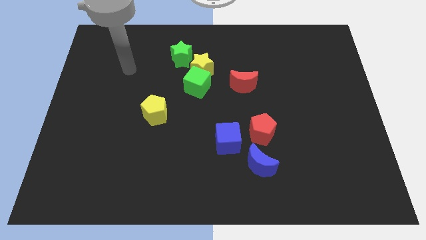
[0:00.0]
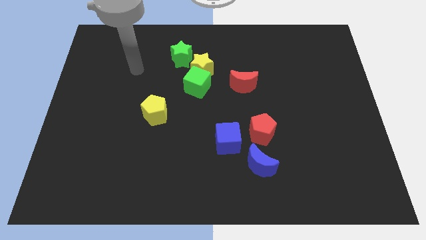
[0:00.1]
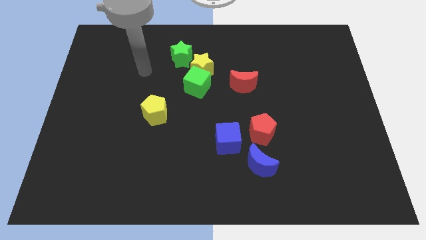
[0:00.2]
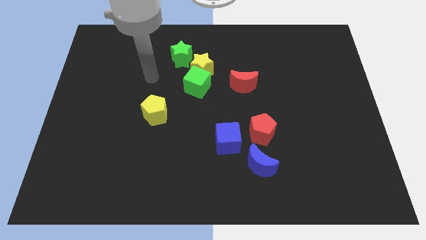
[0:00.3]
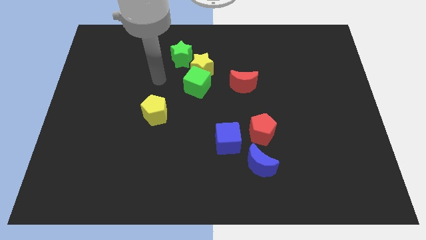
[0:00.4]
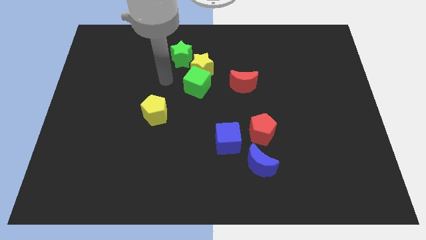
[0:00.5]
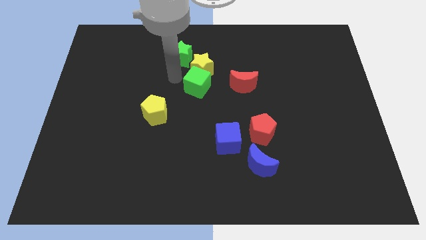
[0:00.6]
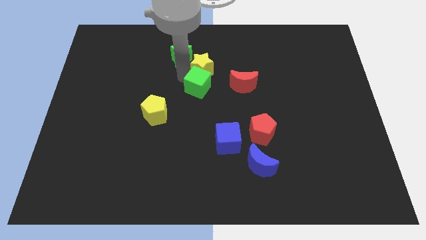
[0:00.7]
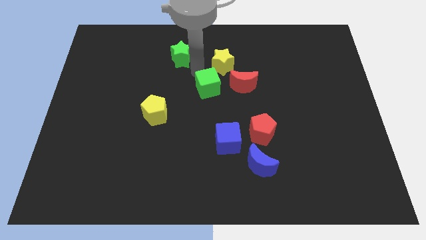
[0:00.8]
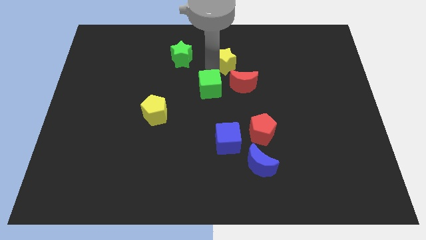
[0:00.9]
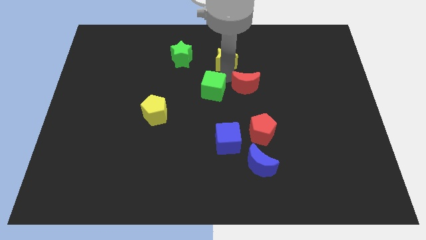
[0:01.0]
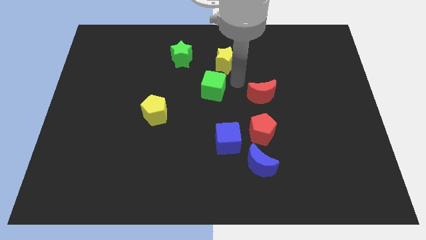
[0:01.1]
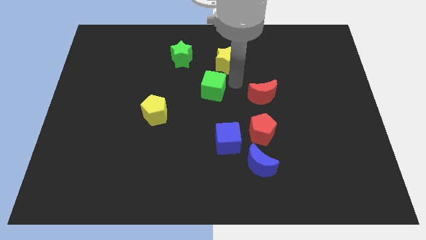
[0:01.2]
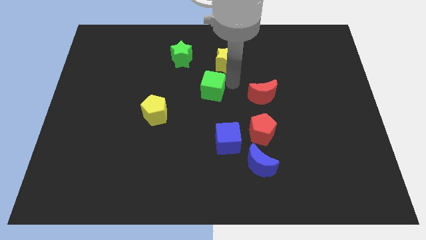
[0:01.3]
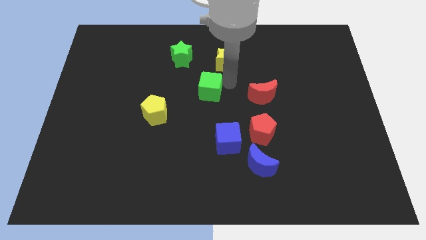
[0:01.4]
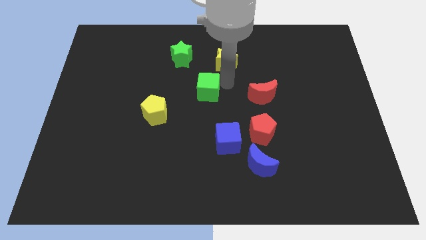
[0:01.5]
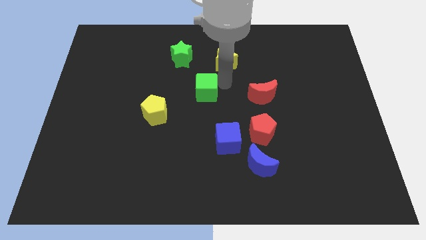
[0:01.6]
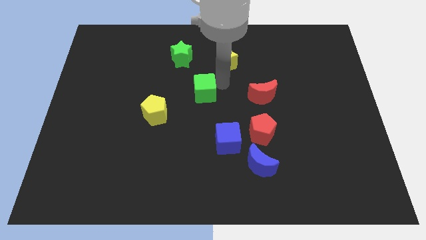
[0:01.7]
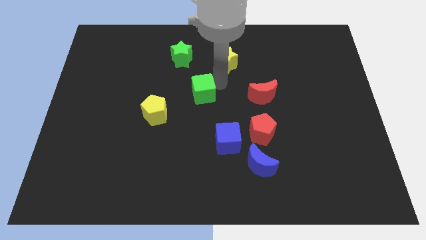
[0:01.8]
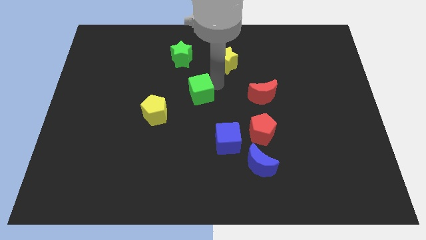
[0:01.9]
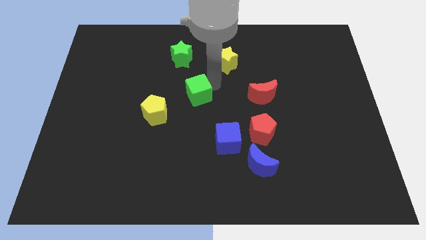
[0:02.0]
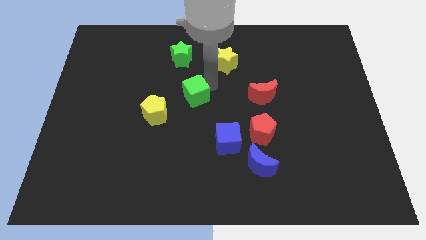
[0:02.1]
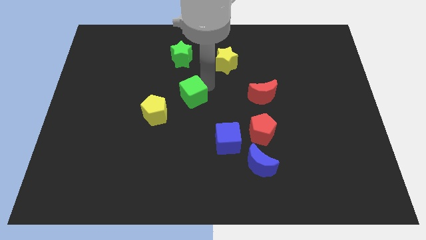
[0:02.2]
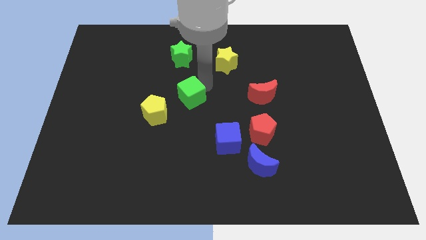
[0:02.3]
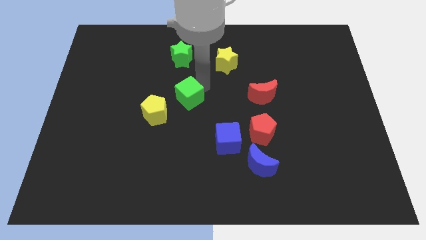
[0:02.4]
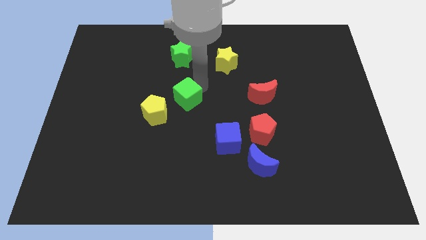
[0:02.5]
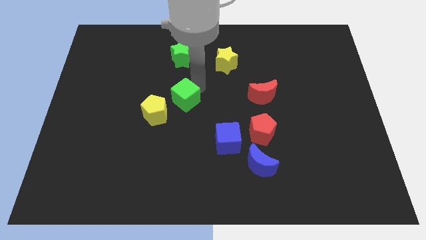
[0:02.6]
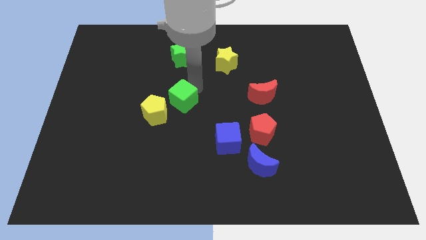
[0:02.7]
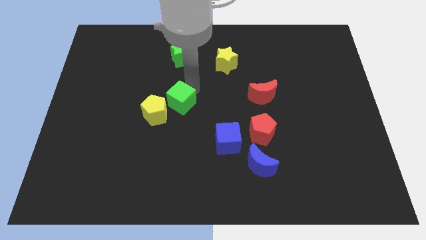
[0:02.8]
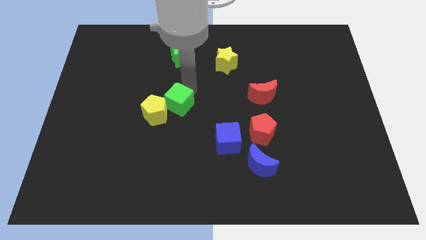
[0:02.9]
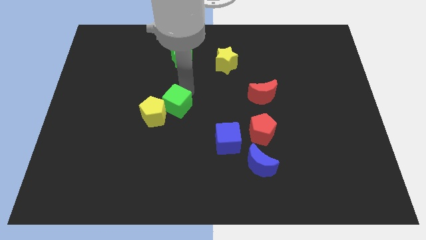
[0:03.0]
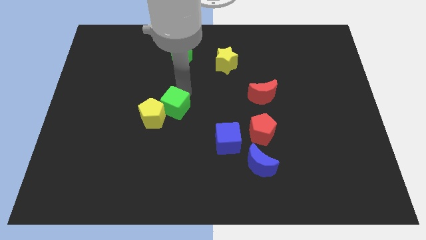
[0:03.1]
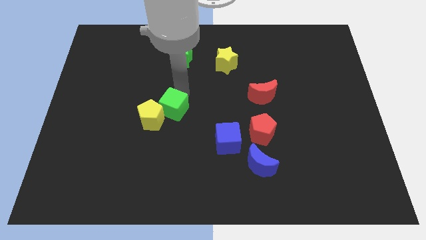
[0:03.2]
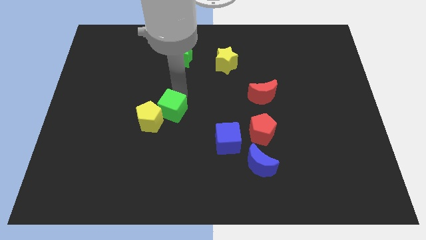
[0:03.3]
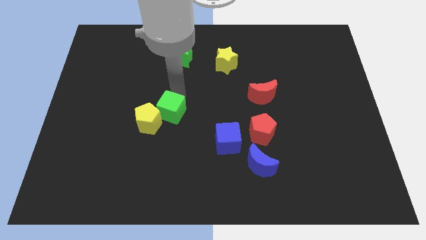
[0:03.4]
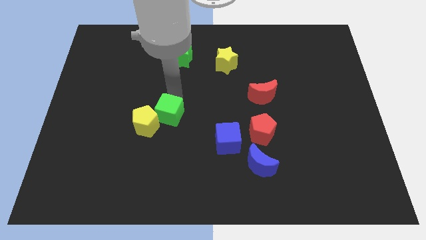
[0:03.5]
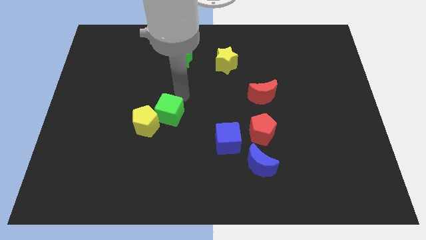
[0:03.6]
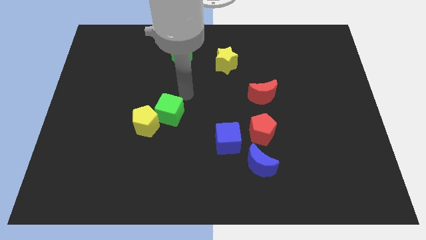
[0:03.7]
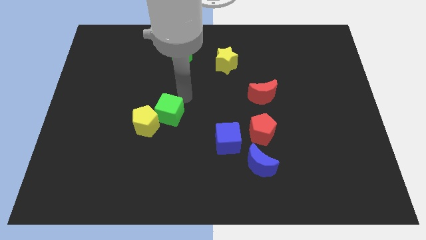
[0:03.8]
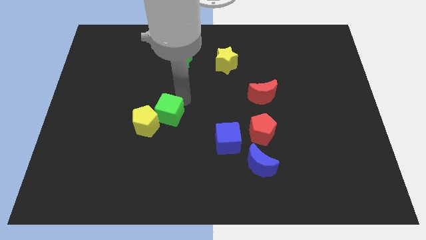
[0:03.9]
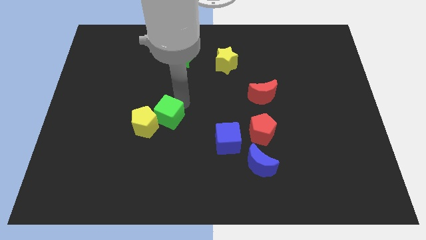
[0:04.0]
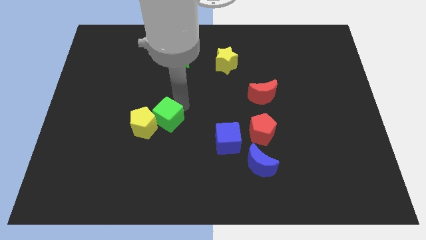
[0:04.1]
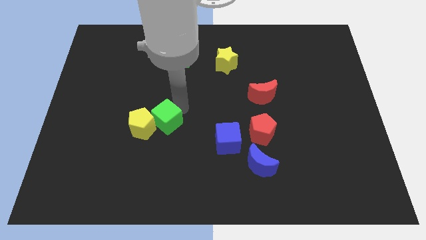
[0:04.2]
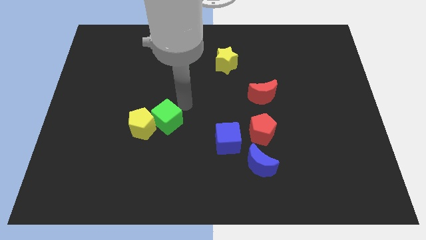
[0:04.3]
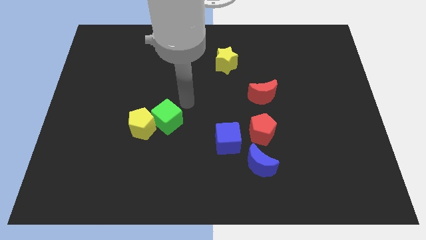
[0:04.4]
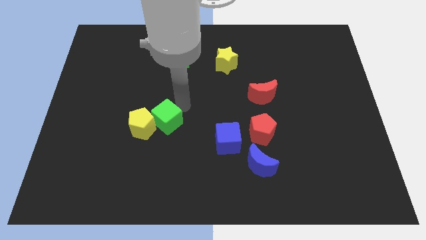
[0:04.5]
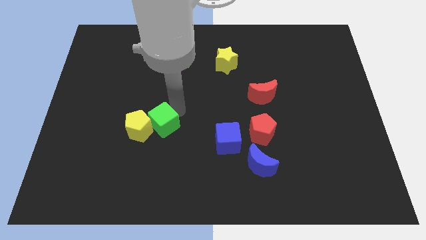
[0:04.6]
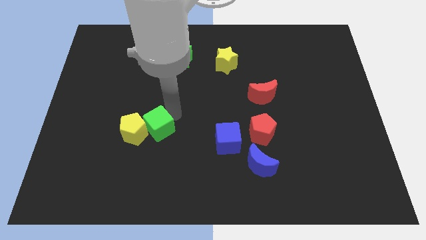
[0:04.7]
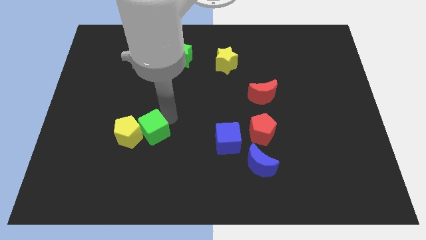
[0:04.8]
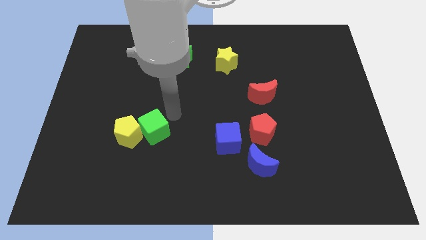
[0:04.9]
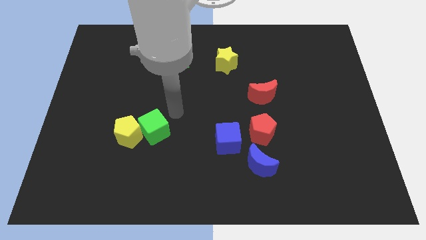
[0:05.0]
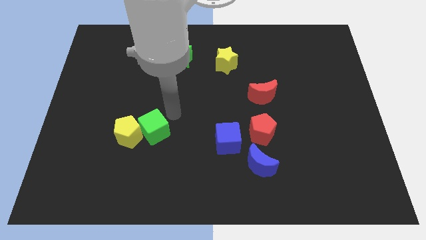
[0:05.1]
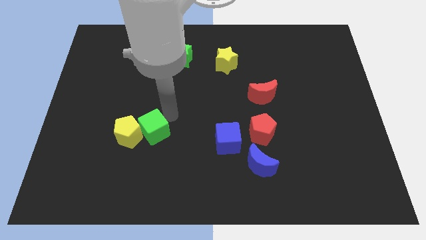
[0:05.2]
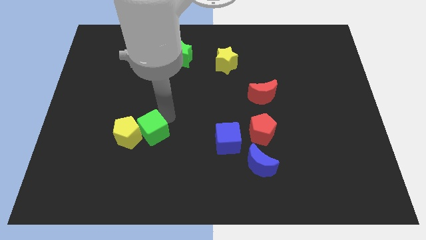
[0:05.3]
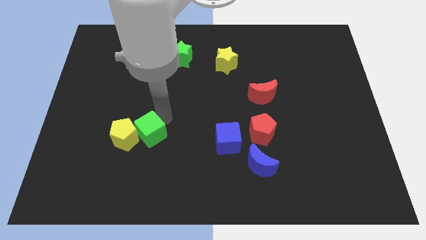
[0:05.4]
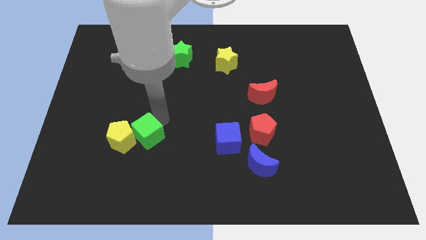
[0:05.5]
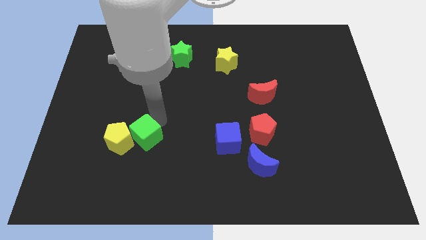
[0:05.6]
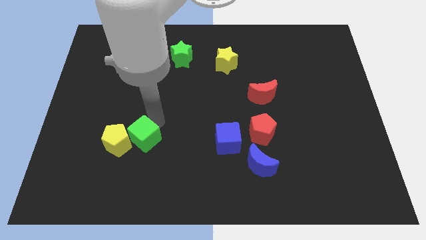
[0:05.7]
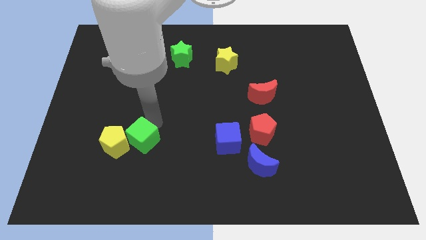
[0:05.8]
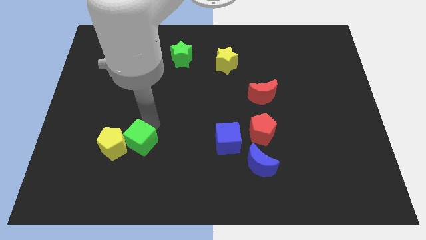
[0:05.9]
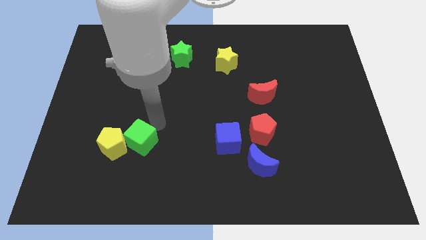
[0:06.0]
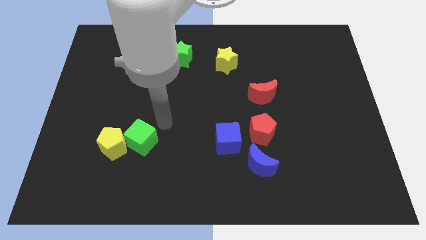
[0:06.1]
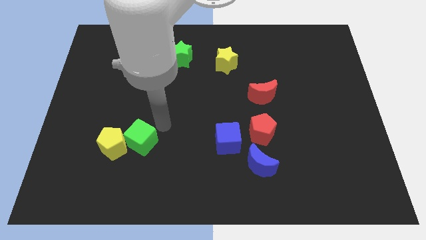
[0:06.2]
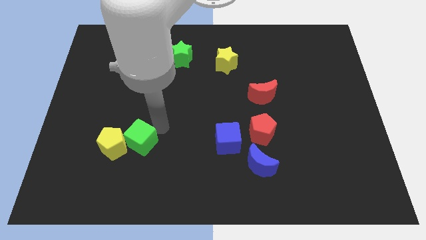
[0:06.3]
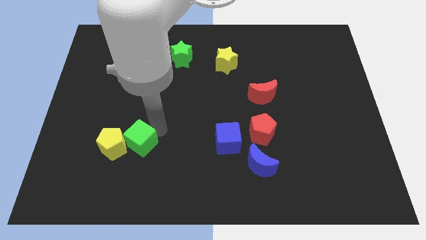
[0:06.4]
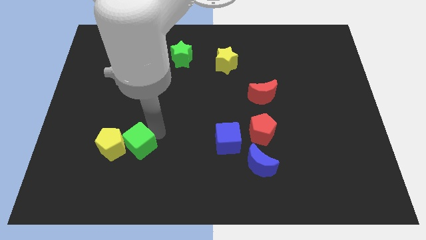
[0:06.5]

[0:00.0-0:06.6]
push the green cube diagonally downwards and left

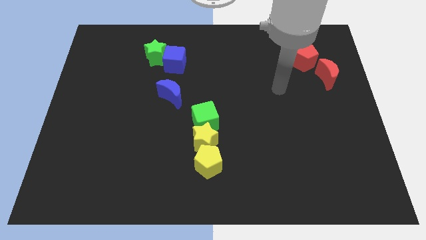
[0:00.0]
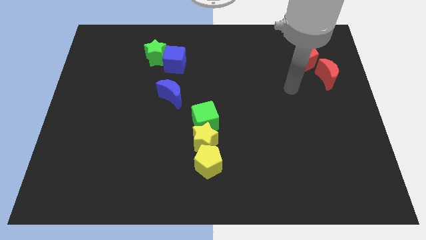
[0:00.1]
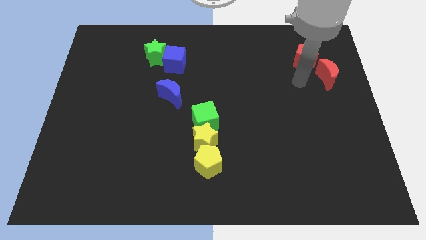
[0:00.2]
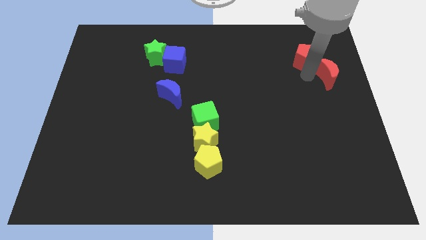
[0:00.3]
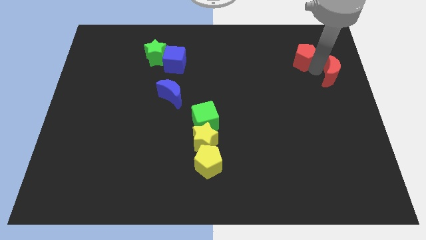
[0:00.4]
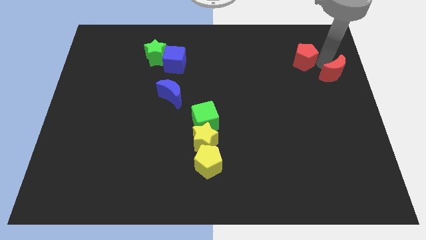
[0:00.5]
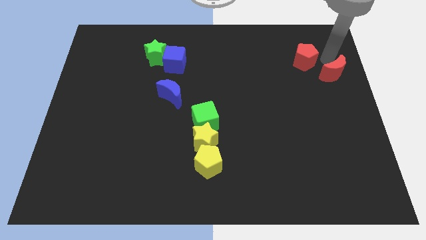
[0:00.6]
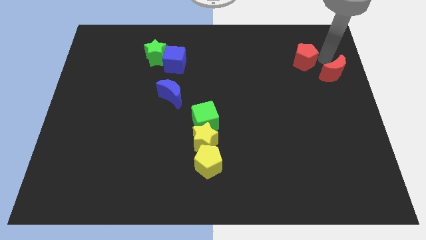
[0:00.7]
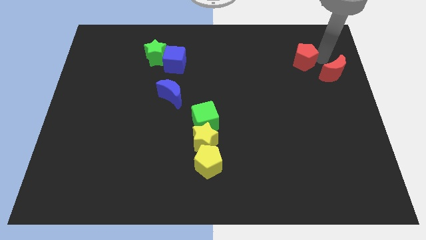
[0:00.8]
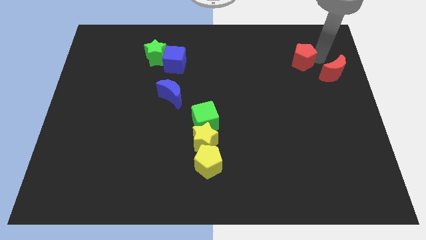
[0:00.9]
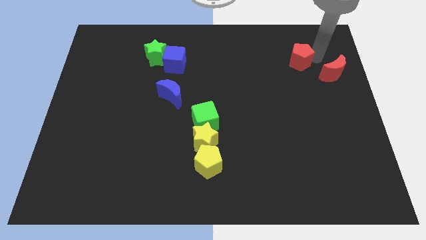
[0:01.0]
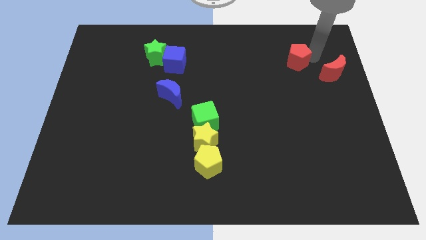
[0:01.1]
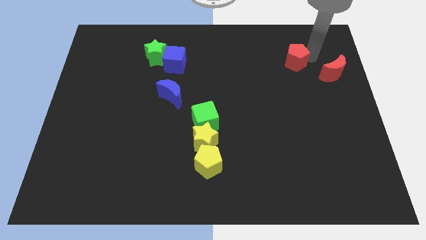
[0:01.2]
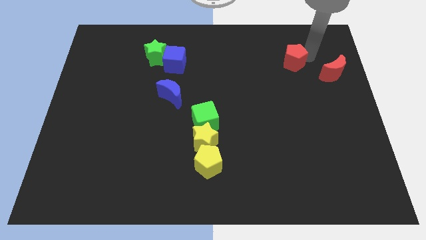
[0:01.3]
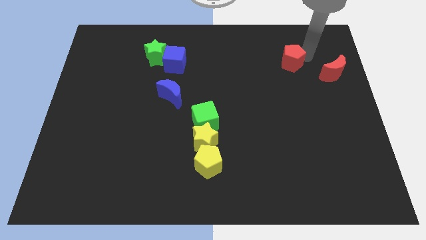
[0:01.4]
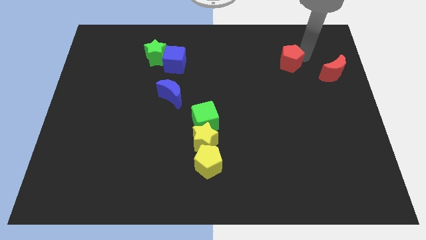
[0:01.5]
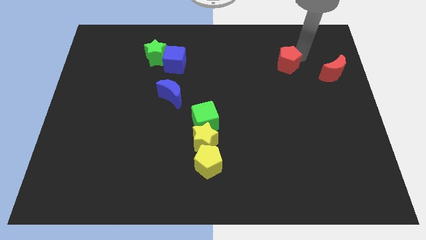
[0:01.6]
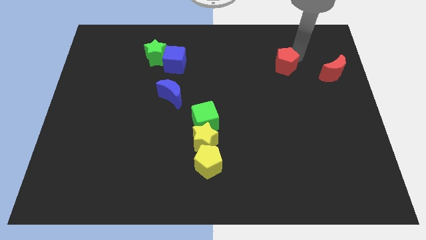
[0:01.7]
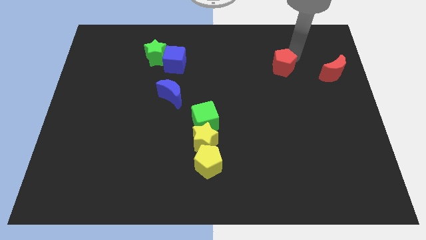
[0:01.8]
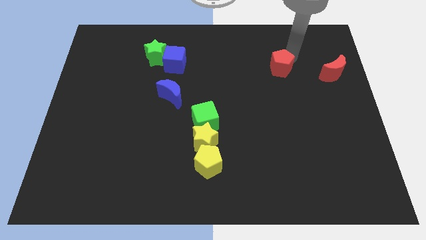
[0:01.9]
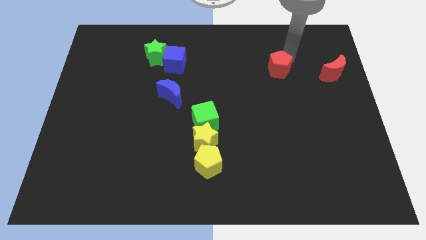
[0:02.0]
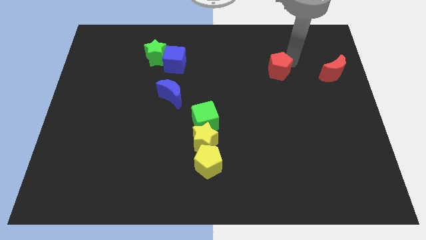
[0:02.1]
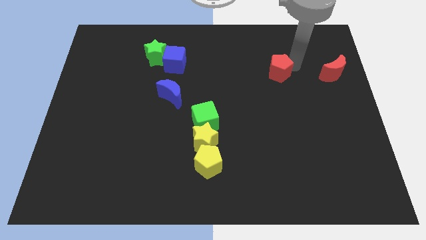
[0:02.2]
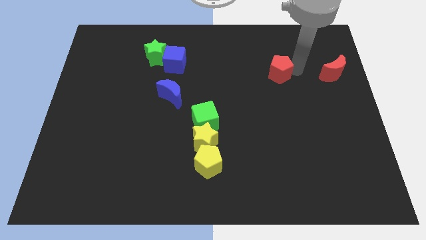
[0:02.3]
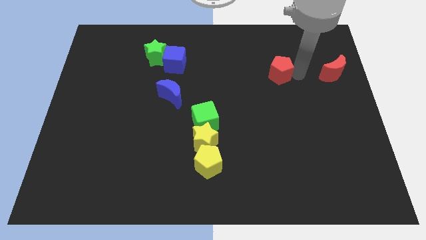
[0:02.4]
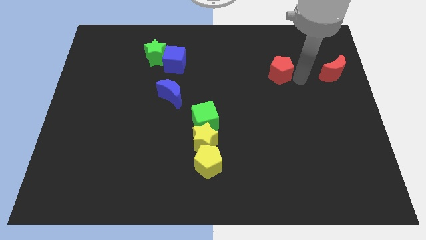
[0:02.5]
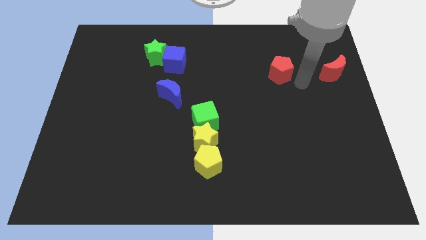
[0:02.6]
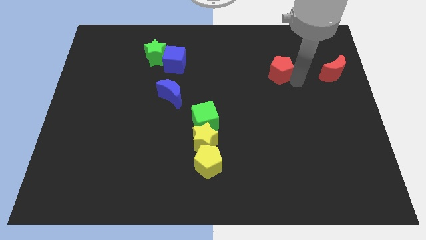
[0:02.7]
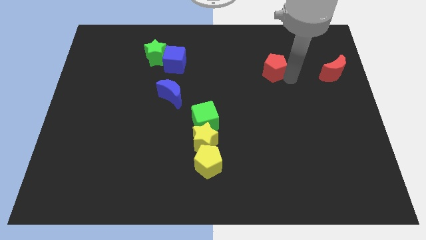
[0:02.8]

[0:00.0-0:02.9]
move the red pentagon left a bit
